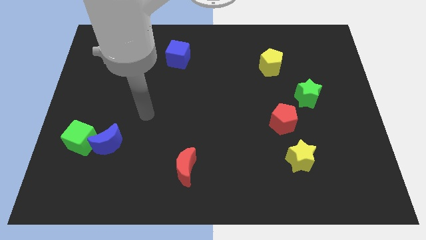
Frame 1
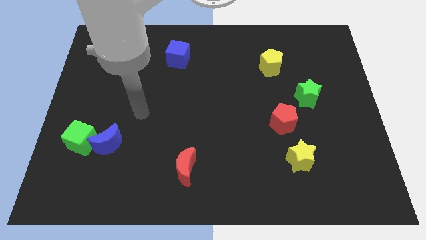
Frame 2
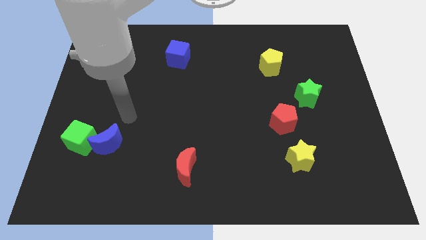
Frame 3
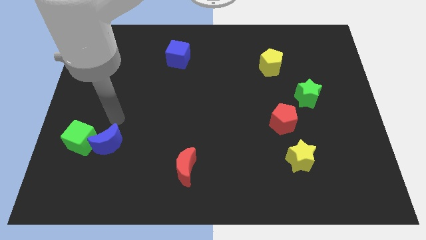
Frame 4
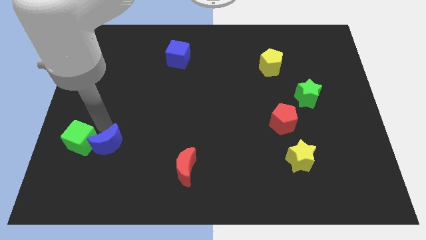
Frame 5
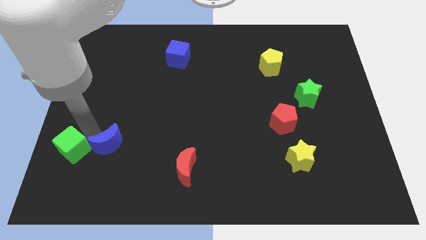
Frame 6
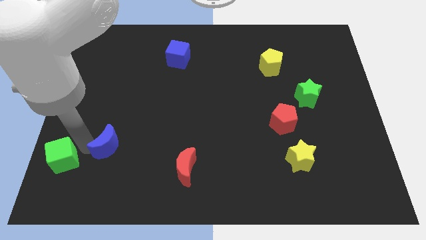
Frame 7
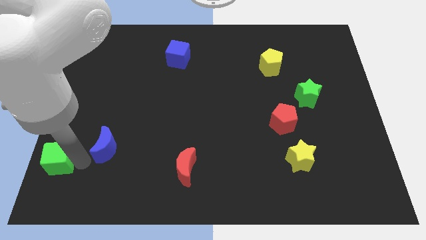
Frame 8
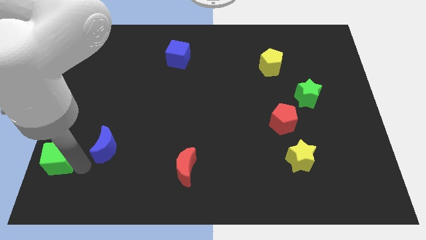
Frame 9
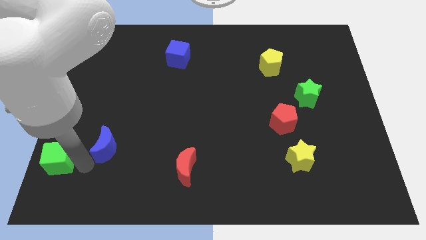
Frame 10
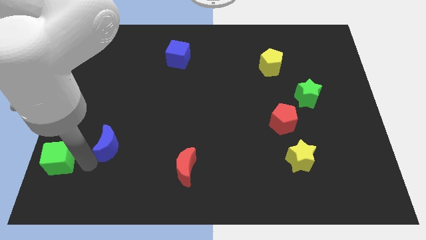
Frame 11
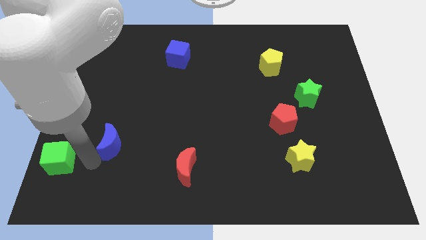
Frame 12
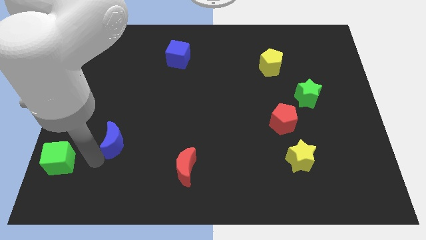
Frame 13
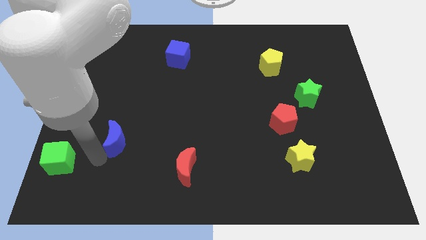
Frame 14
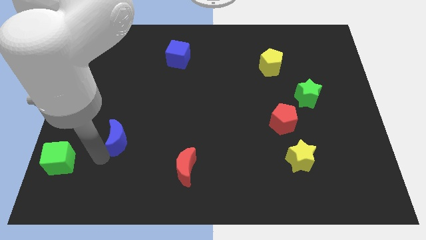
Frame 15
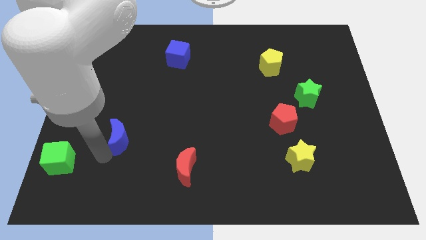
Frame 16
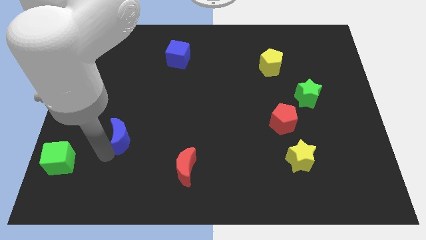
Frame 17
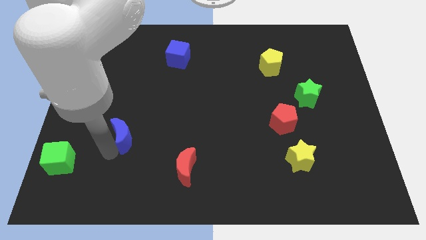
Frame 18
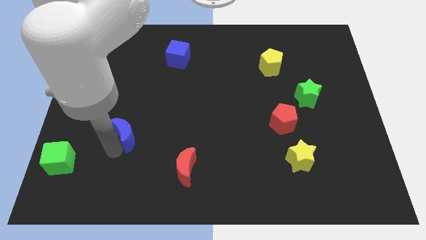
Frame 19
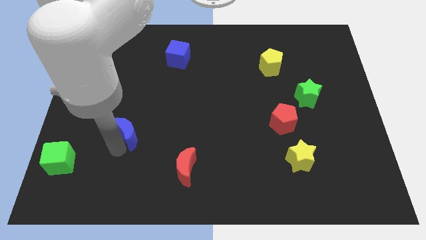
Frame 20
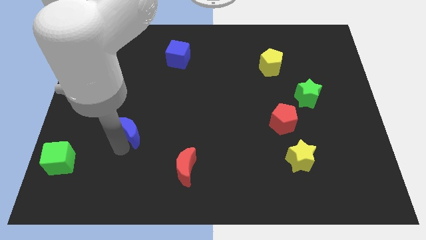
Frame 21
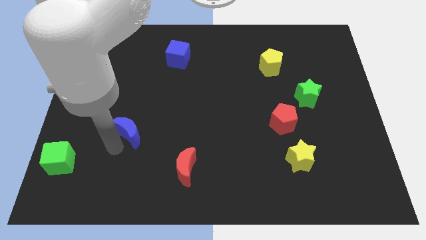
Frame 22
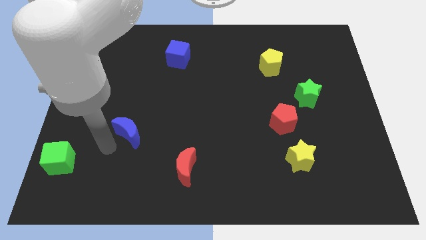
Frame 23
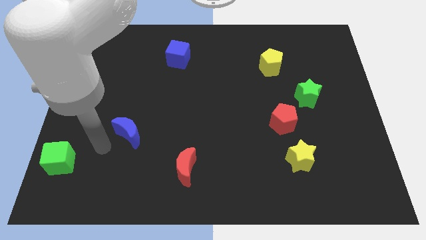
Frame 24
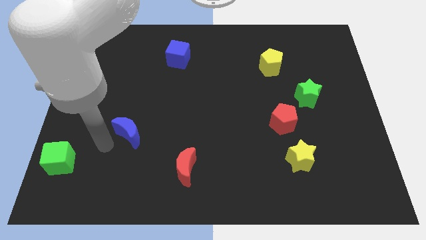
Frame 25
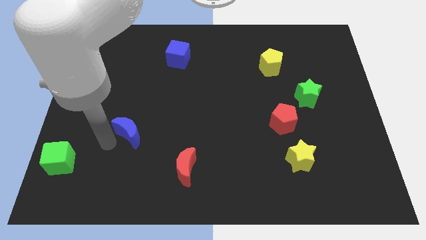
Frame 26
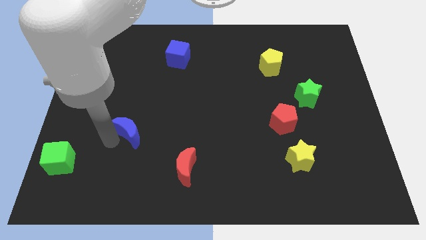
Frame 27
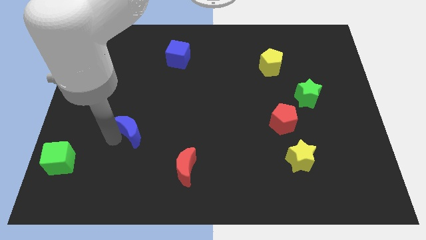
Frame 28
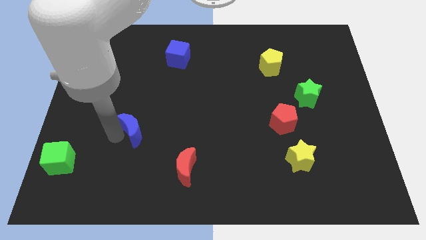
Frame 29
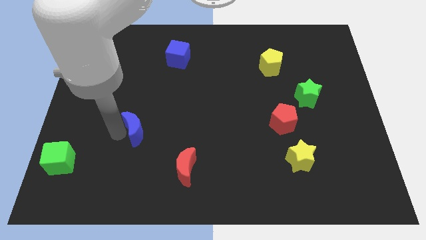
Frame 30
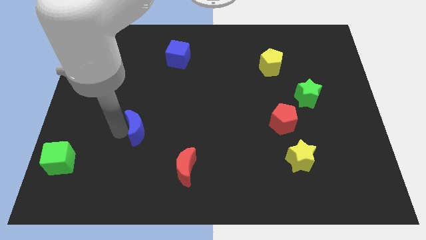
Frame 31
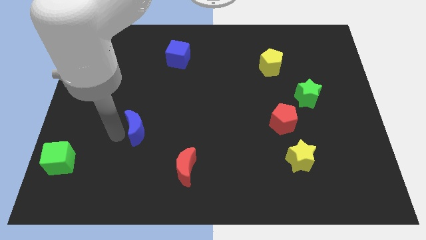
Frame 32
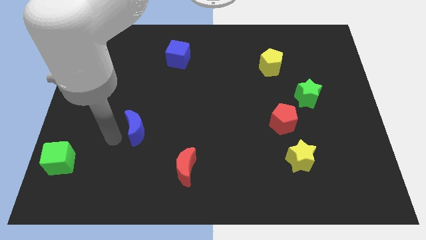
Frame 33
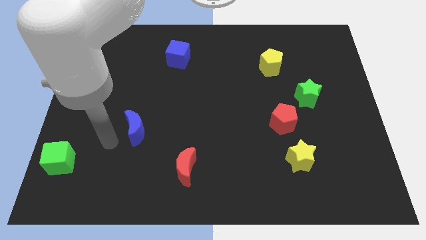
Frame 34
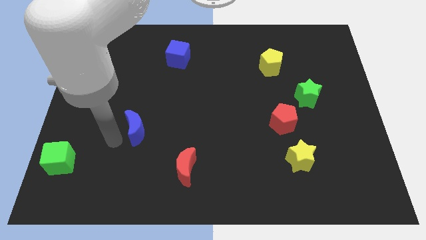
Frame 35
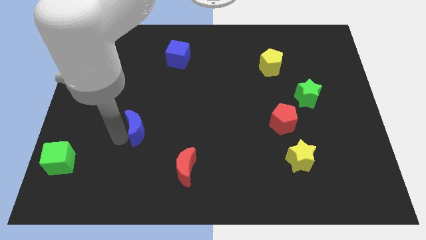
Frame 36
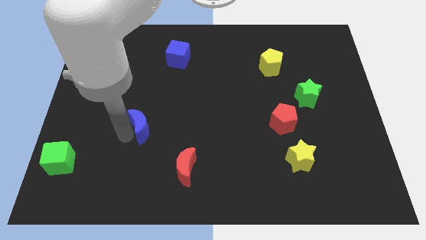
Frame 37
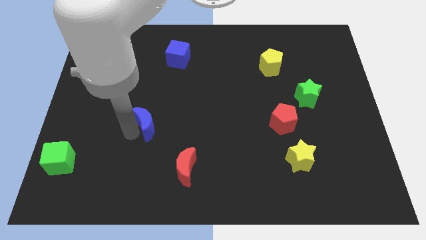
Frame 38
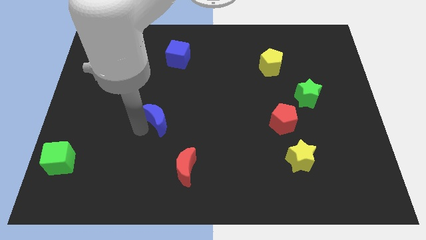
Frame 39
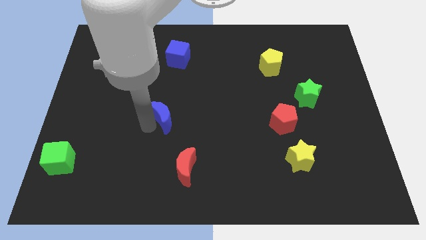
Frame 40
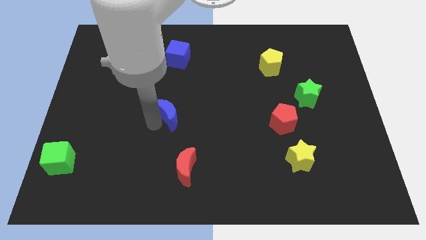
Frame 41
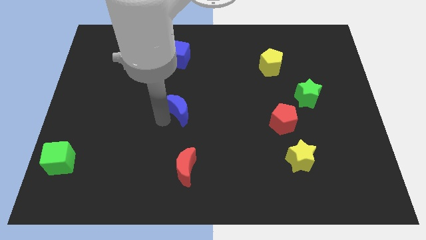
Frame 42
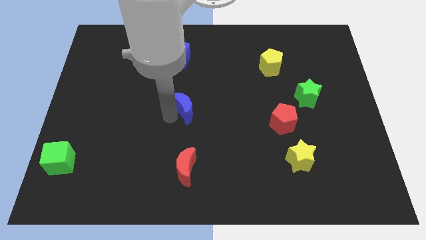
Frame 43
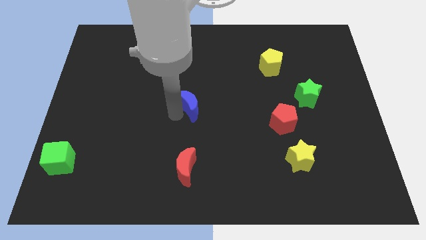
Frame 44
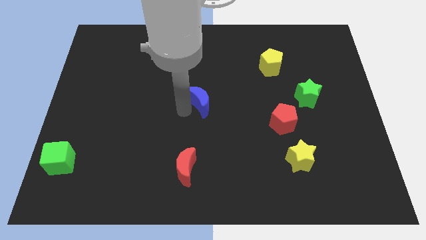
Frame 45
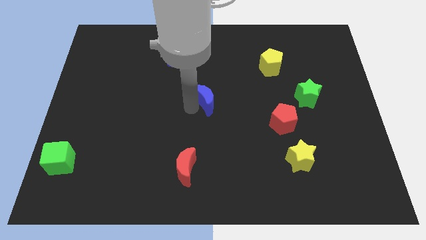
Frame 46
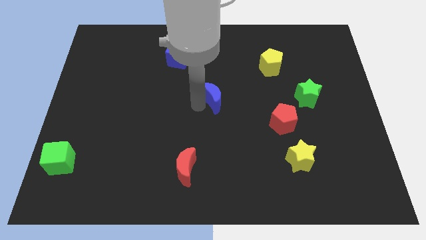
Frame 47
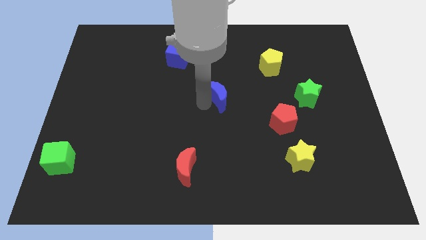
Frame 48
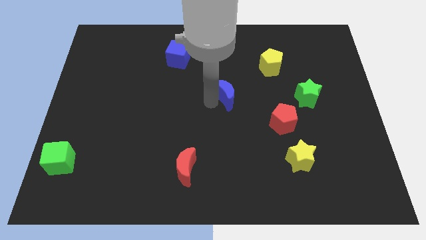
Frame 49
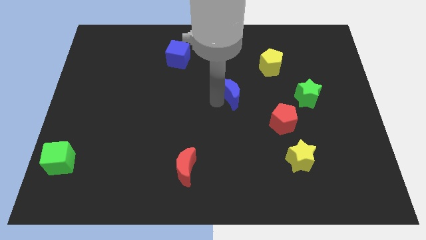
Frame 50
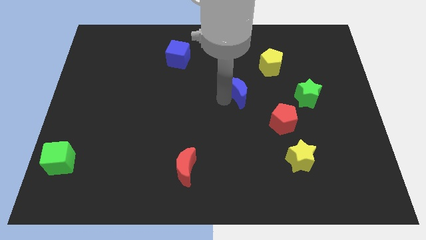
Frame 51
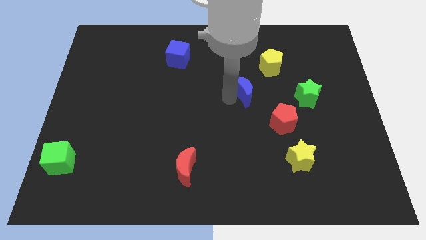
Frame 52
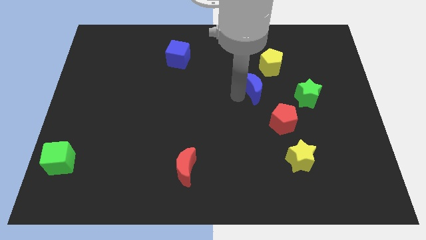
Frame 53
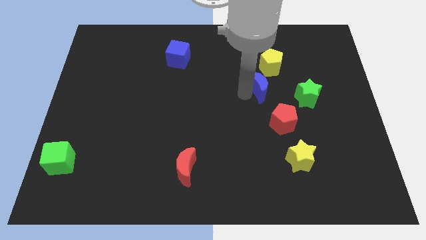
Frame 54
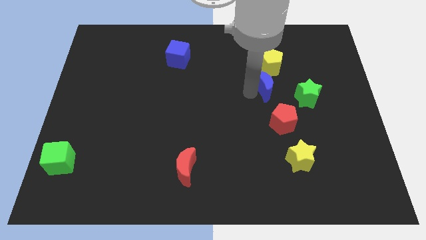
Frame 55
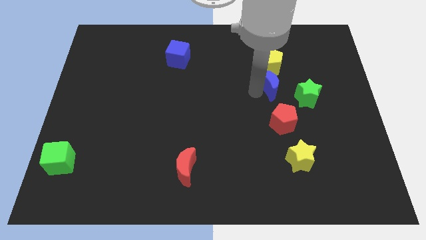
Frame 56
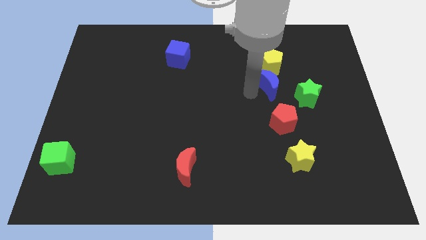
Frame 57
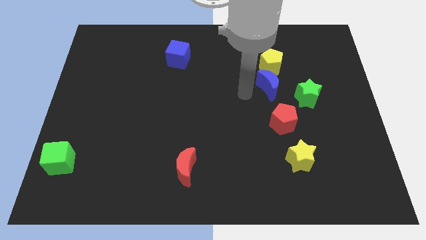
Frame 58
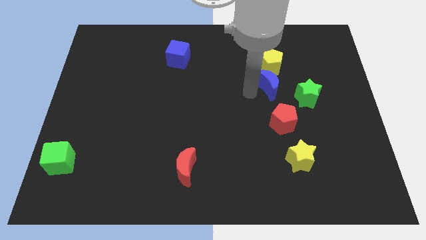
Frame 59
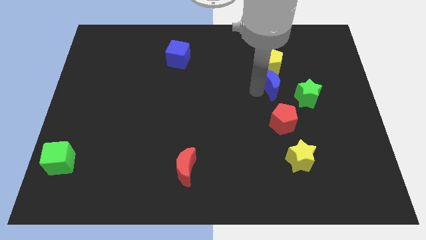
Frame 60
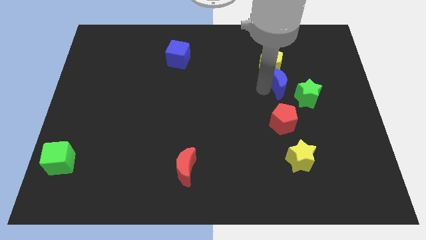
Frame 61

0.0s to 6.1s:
put the blue moon to the bottom right of the yellow pentagon

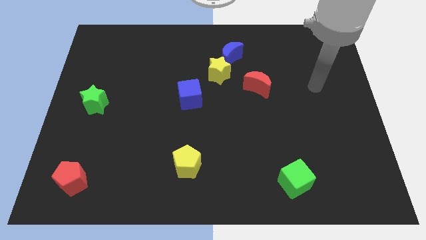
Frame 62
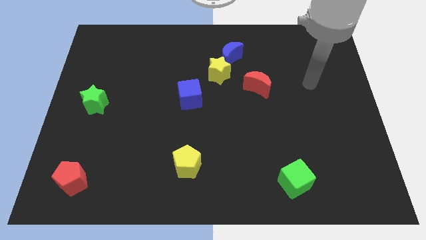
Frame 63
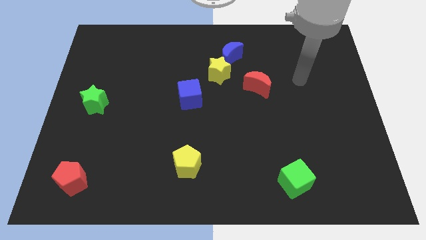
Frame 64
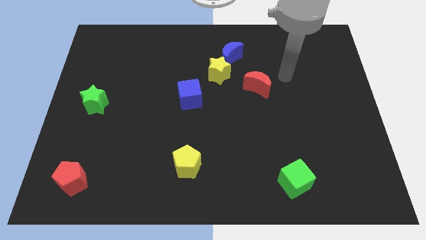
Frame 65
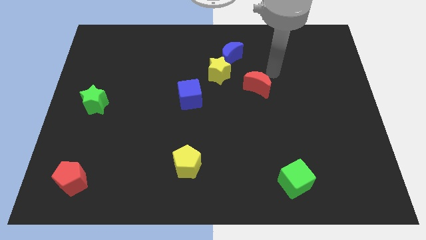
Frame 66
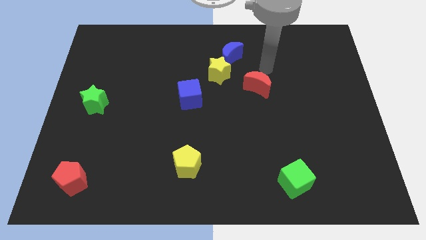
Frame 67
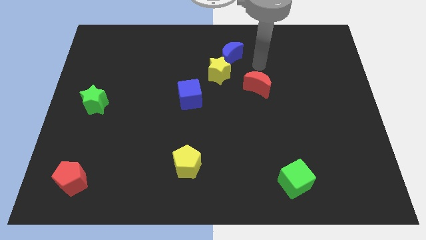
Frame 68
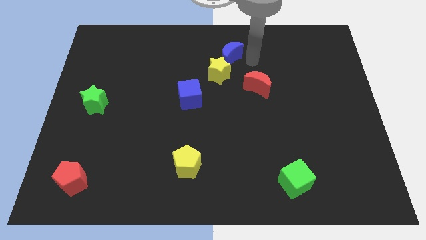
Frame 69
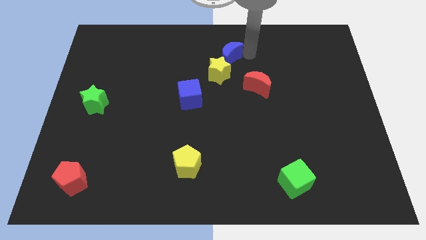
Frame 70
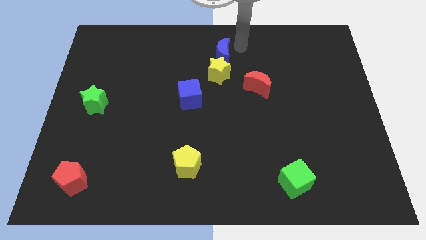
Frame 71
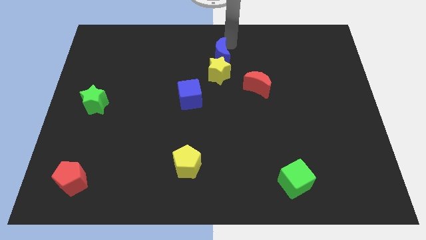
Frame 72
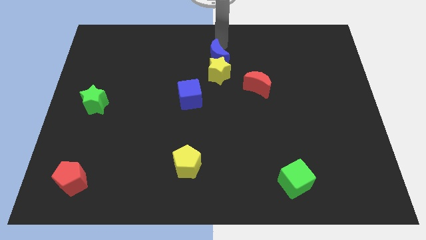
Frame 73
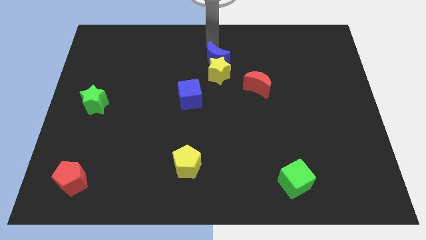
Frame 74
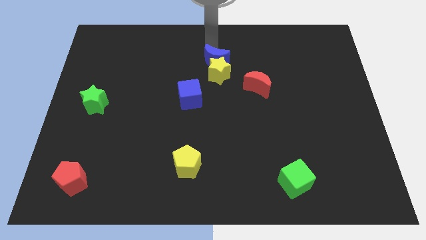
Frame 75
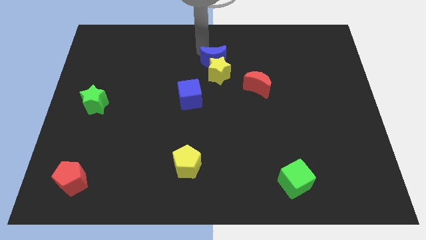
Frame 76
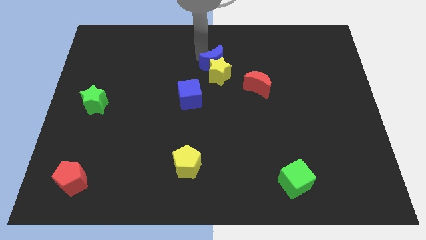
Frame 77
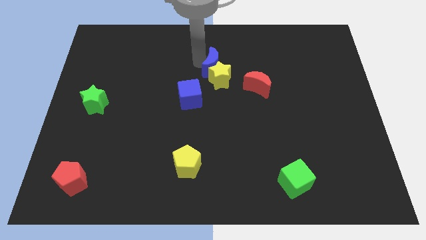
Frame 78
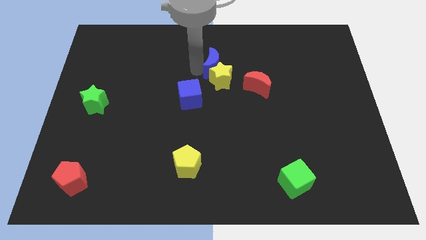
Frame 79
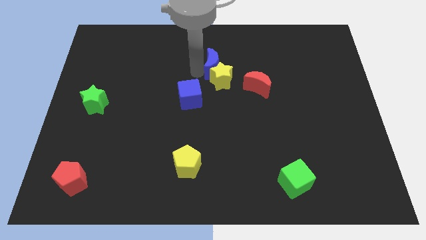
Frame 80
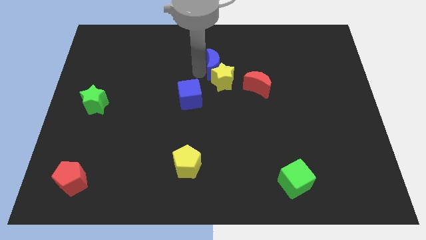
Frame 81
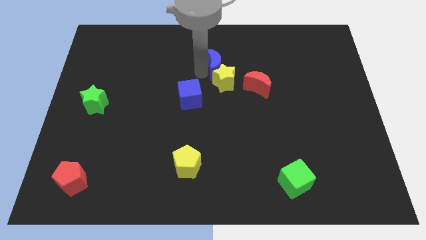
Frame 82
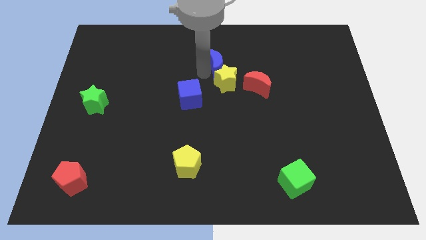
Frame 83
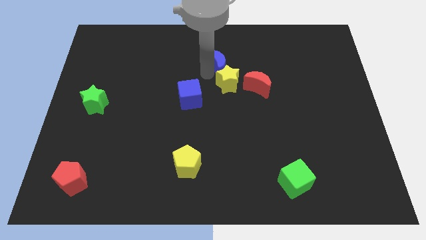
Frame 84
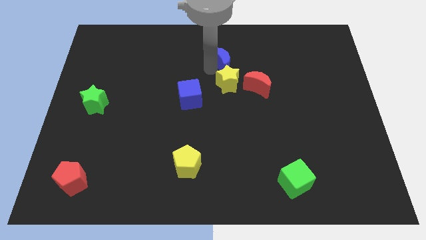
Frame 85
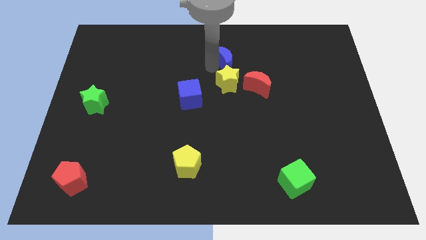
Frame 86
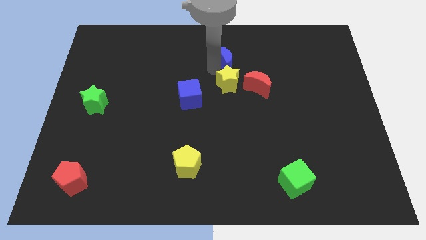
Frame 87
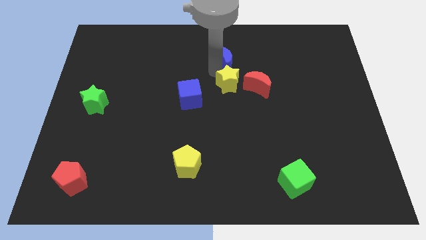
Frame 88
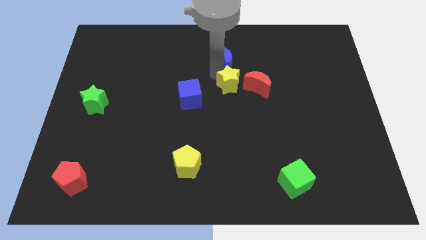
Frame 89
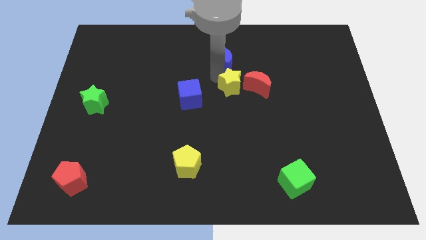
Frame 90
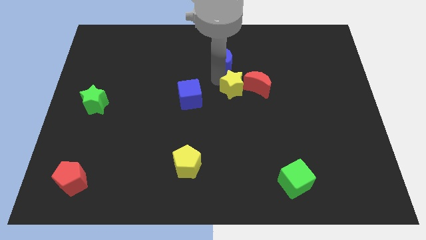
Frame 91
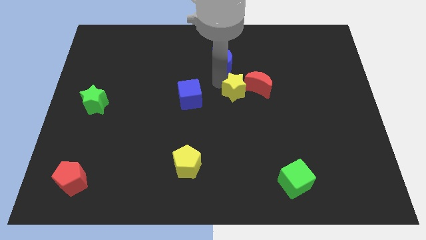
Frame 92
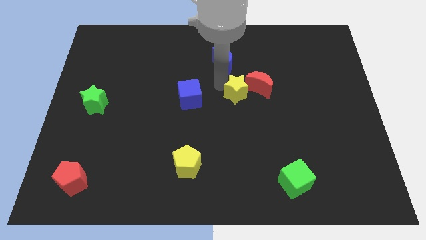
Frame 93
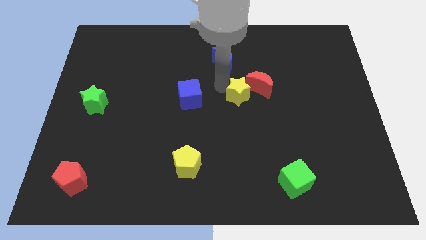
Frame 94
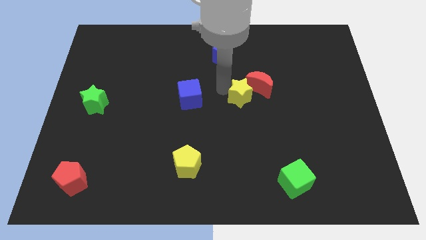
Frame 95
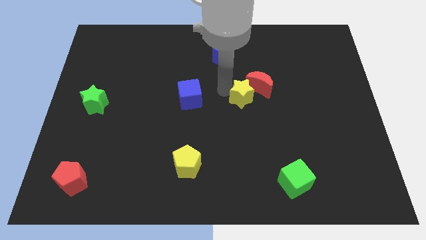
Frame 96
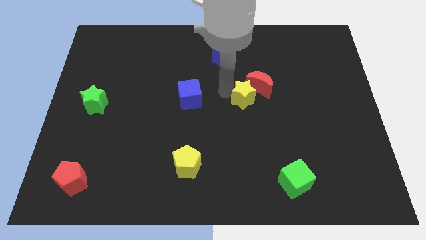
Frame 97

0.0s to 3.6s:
push the yellow star below the red moon
